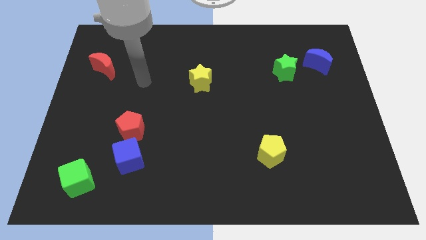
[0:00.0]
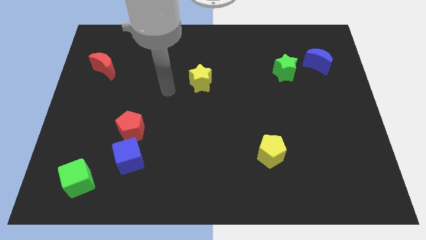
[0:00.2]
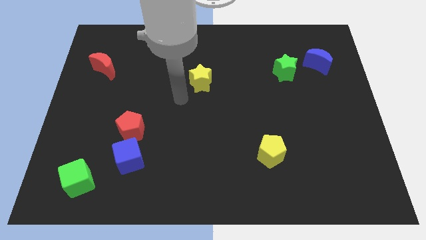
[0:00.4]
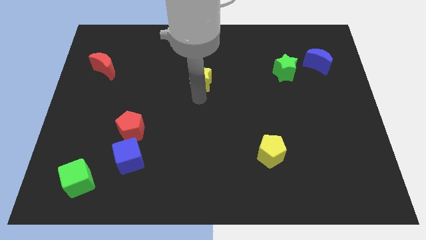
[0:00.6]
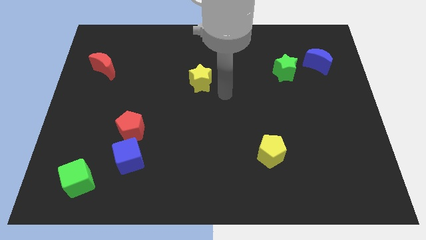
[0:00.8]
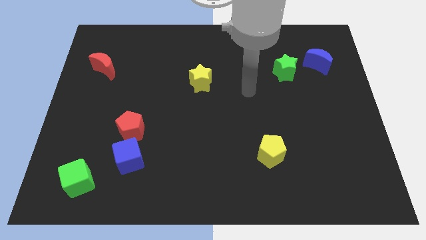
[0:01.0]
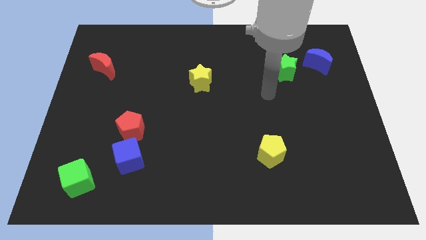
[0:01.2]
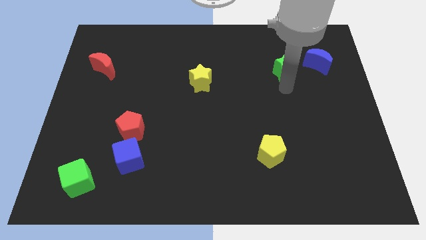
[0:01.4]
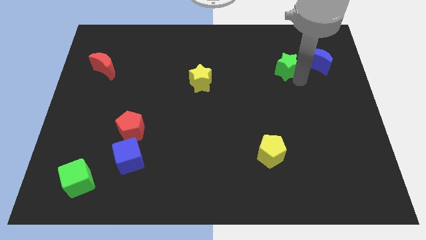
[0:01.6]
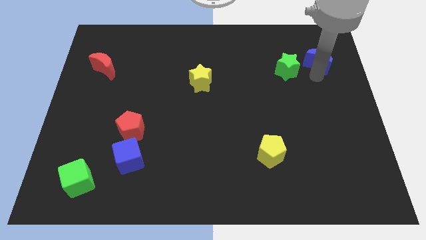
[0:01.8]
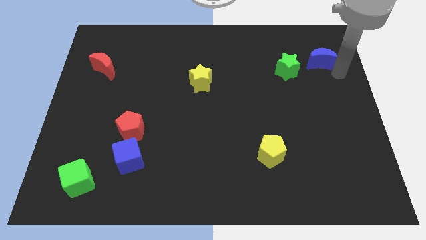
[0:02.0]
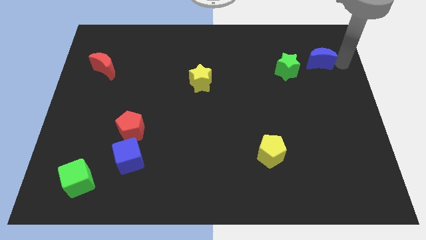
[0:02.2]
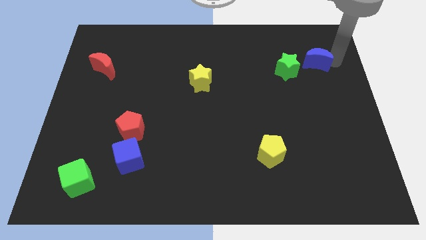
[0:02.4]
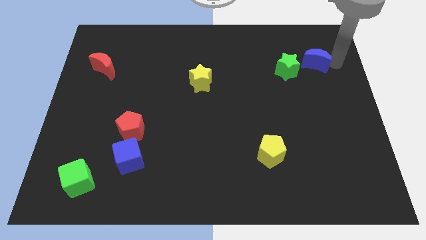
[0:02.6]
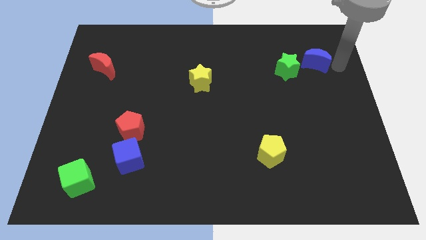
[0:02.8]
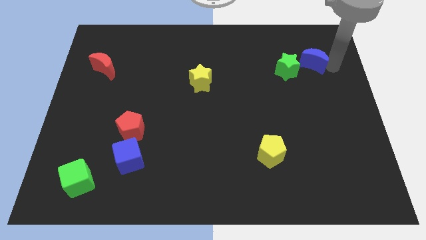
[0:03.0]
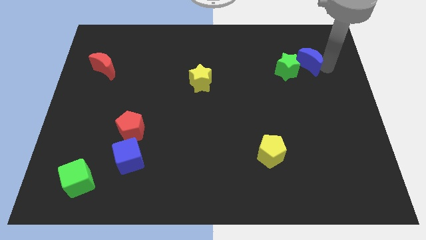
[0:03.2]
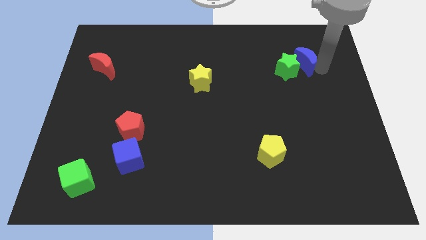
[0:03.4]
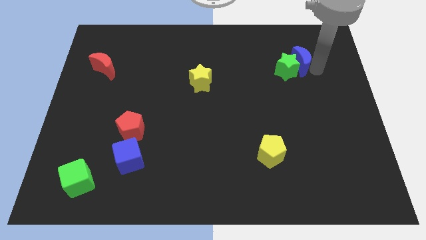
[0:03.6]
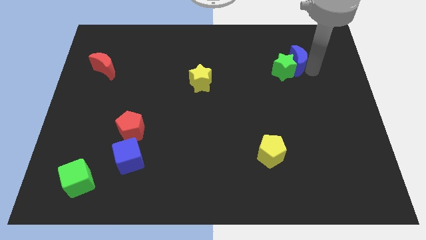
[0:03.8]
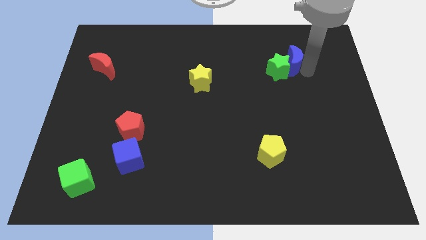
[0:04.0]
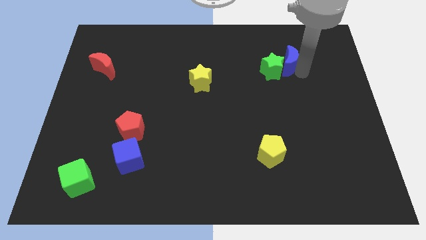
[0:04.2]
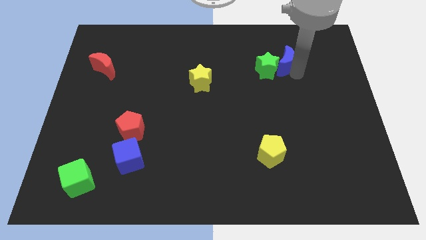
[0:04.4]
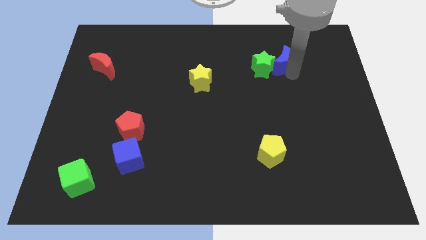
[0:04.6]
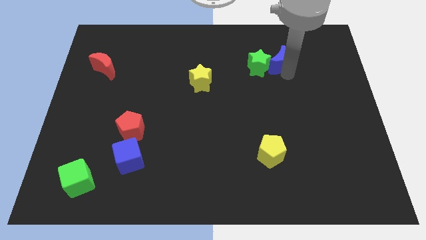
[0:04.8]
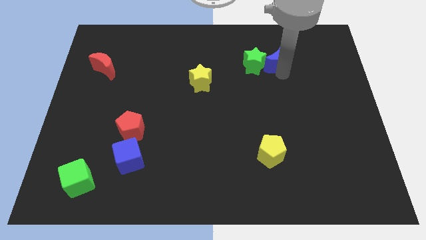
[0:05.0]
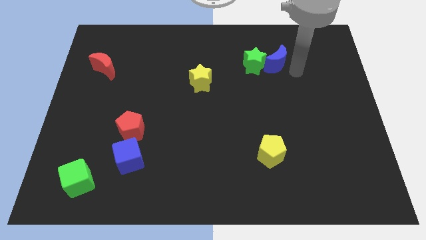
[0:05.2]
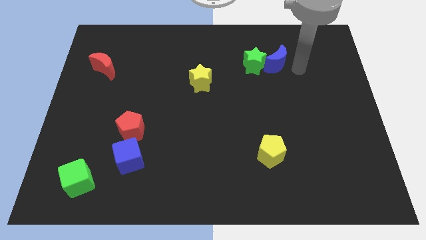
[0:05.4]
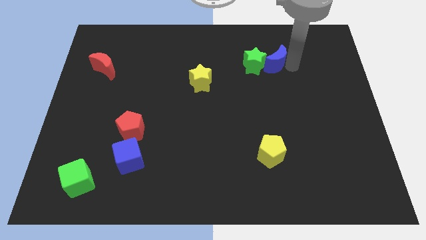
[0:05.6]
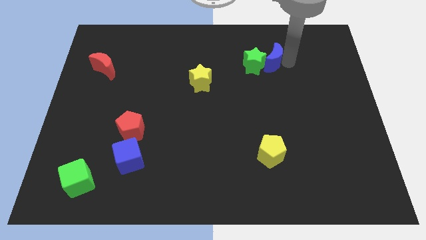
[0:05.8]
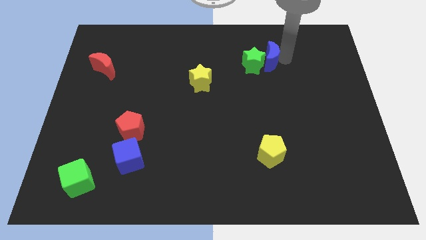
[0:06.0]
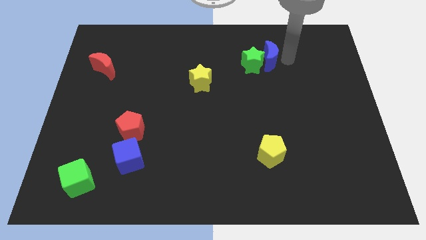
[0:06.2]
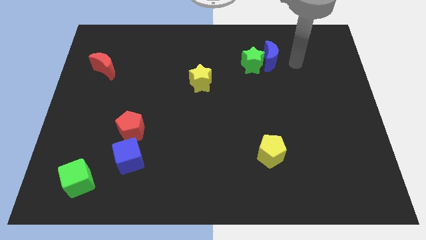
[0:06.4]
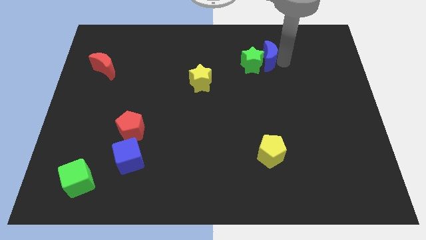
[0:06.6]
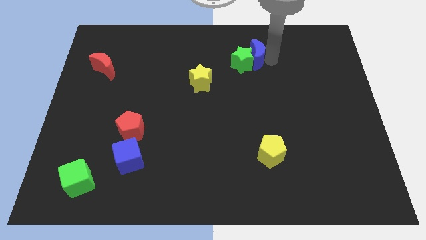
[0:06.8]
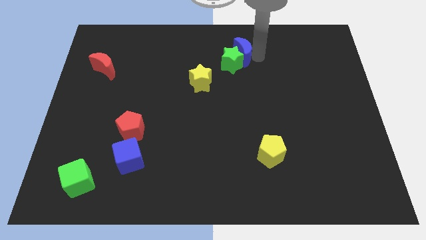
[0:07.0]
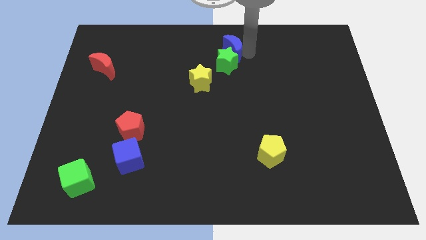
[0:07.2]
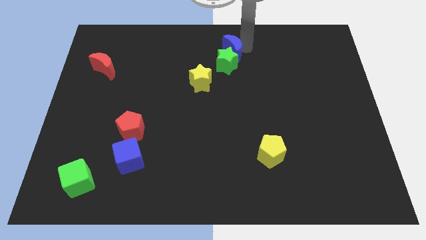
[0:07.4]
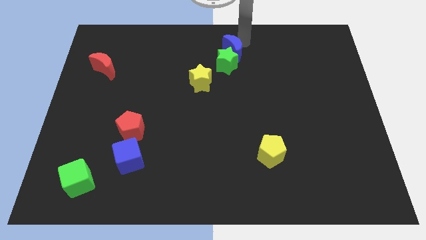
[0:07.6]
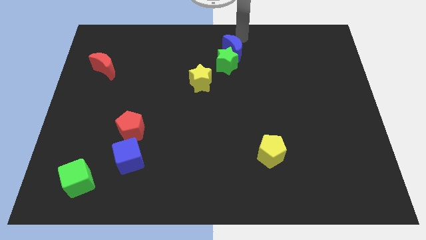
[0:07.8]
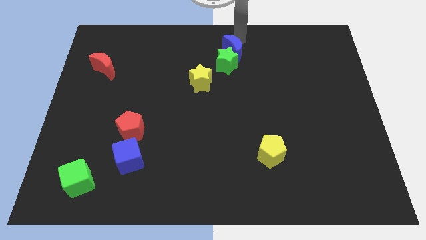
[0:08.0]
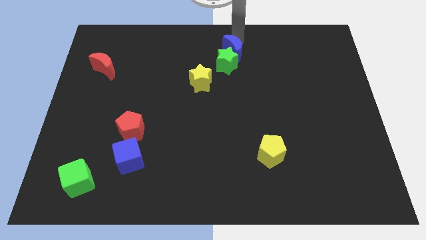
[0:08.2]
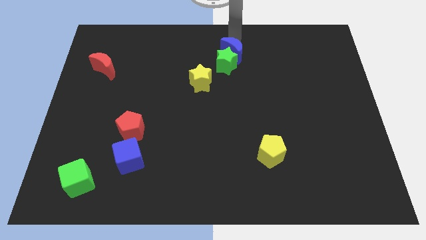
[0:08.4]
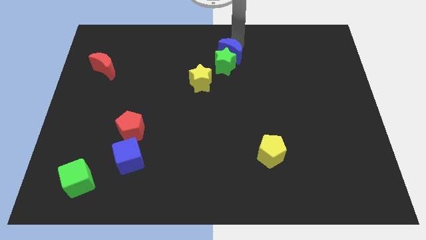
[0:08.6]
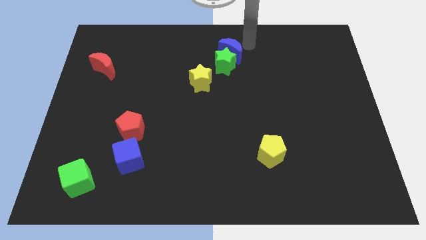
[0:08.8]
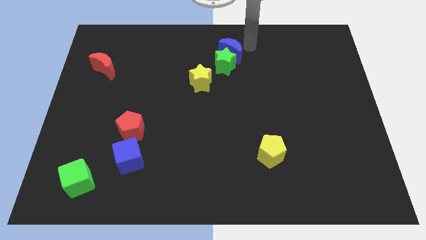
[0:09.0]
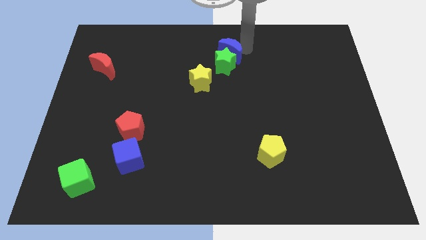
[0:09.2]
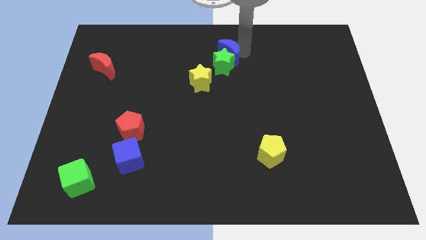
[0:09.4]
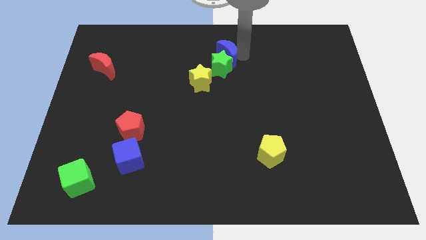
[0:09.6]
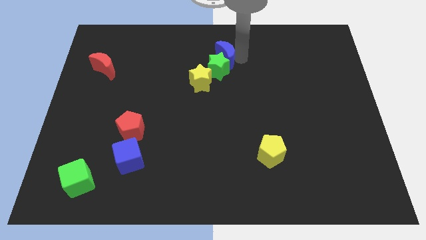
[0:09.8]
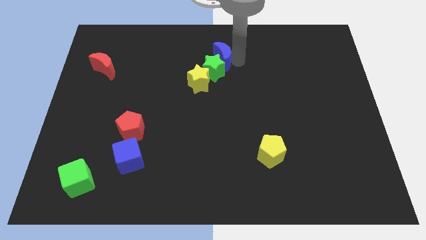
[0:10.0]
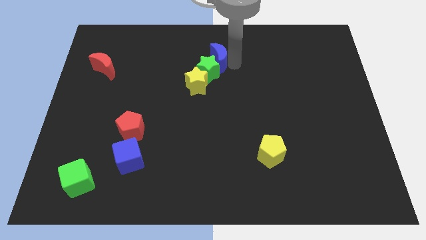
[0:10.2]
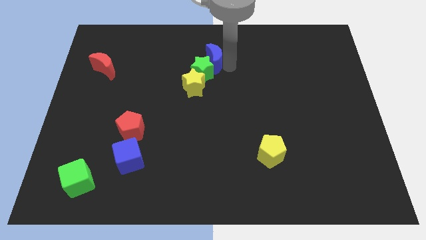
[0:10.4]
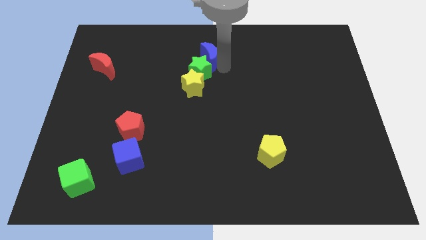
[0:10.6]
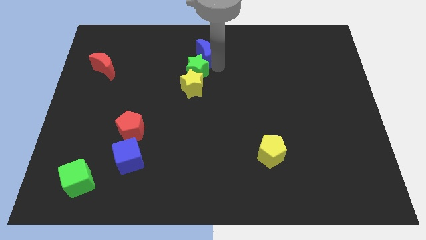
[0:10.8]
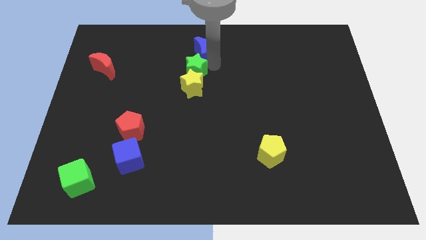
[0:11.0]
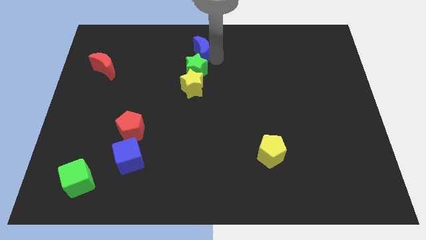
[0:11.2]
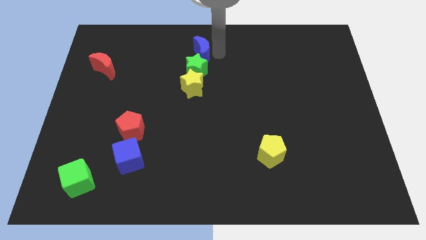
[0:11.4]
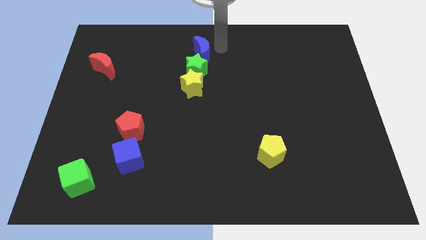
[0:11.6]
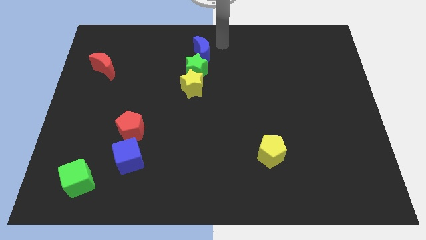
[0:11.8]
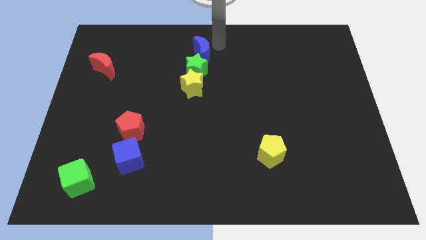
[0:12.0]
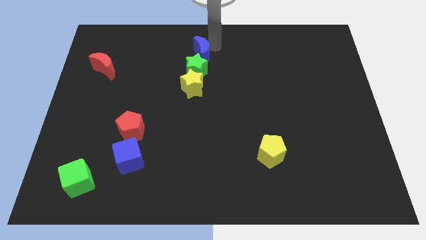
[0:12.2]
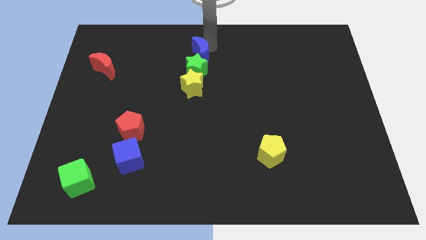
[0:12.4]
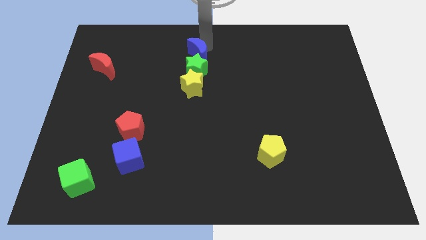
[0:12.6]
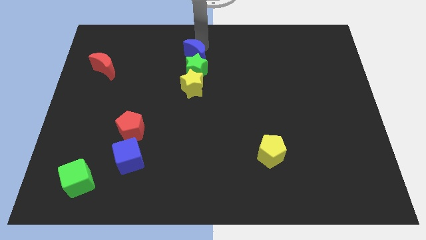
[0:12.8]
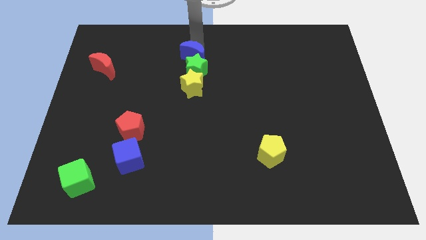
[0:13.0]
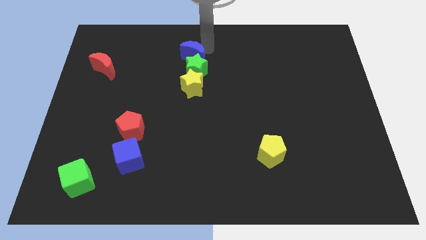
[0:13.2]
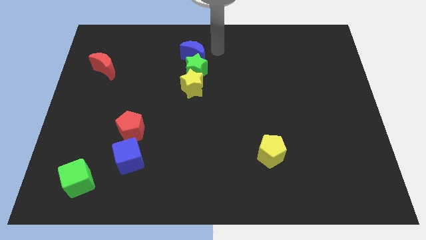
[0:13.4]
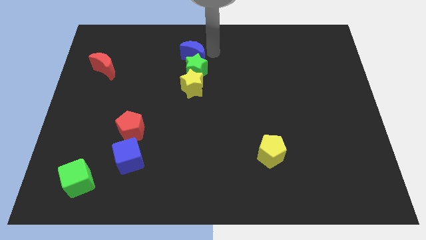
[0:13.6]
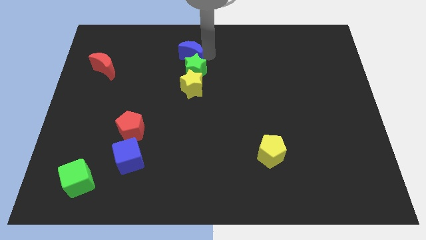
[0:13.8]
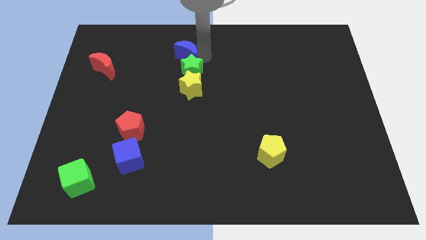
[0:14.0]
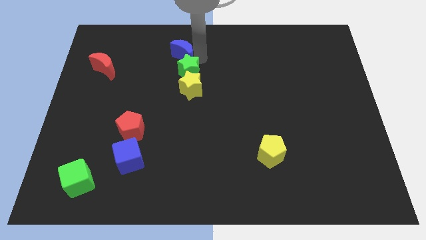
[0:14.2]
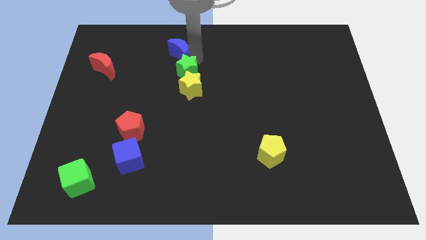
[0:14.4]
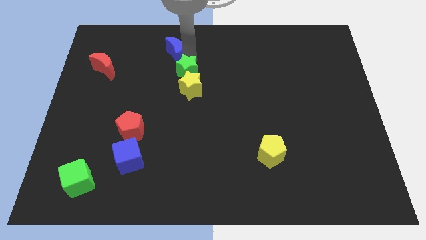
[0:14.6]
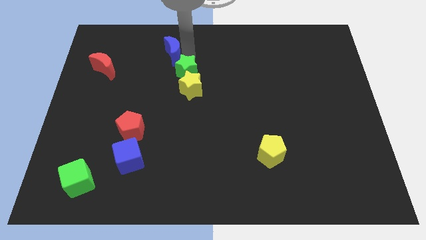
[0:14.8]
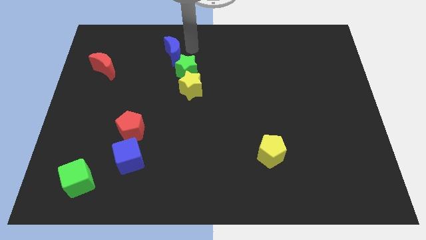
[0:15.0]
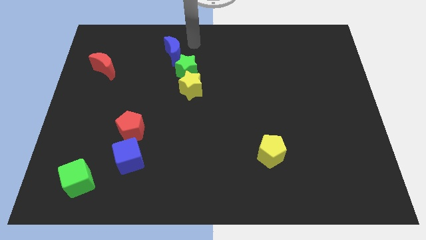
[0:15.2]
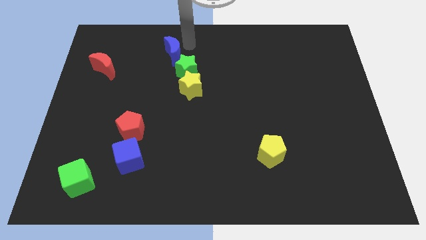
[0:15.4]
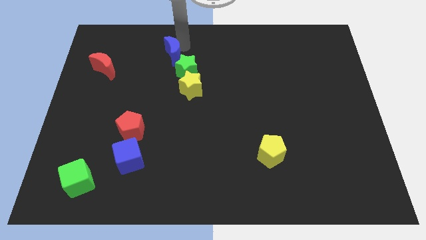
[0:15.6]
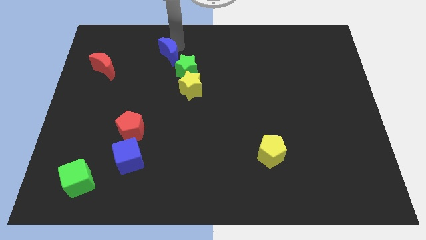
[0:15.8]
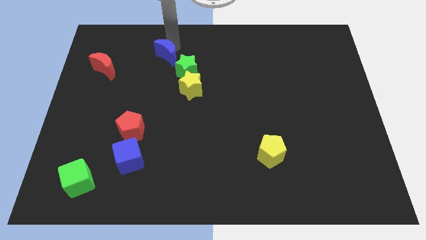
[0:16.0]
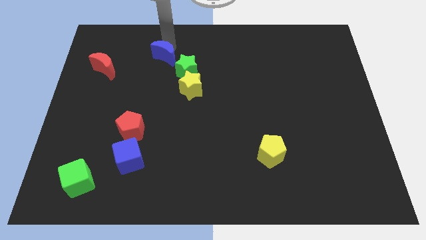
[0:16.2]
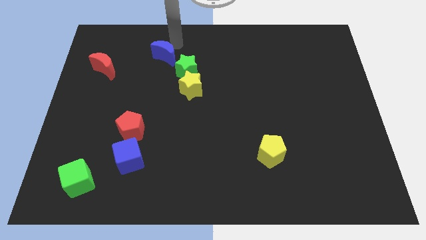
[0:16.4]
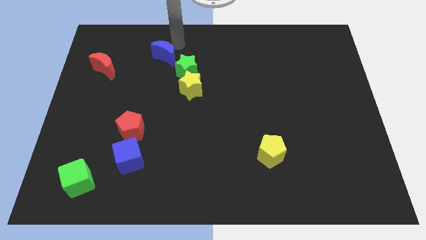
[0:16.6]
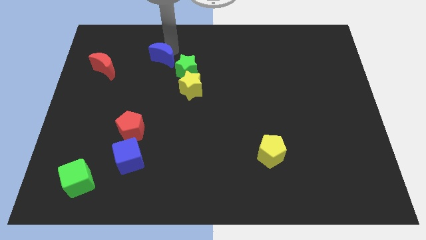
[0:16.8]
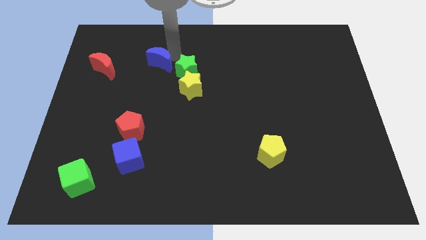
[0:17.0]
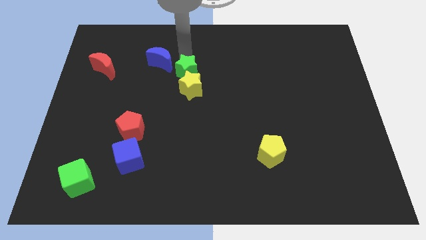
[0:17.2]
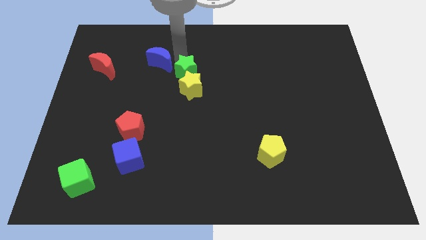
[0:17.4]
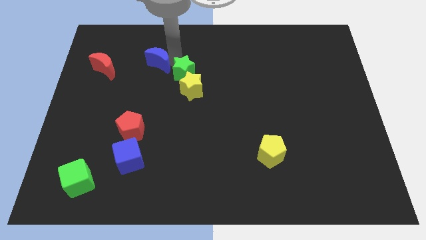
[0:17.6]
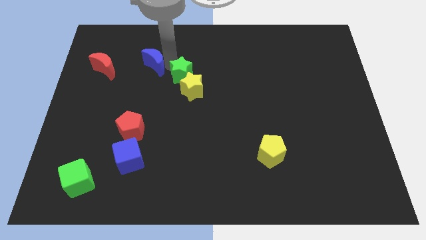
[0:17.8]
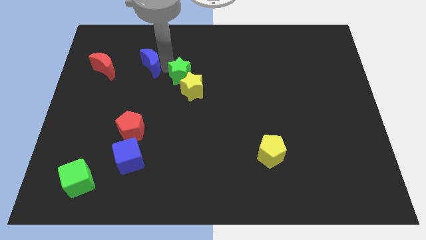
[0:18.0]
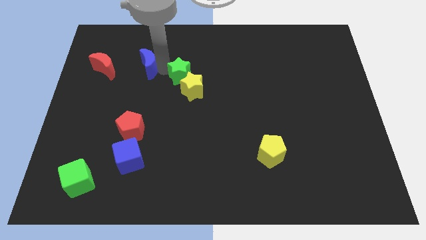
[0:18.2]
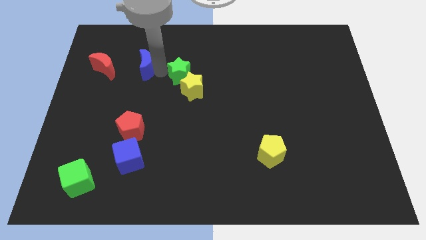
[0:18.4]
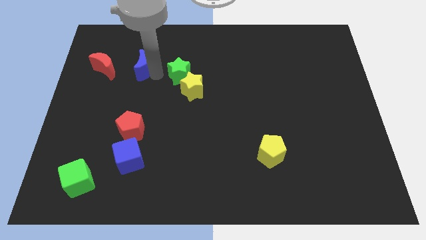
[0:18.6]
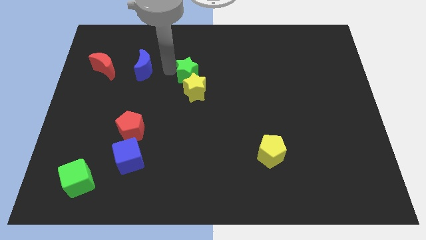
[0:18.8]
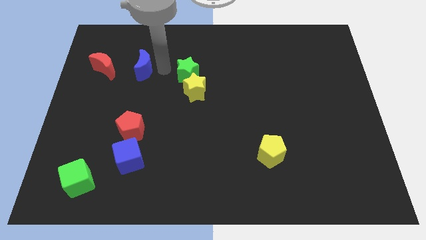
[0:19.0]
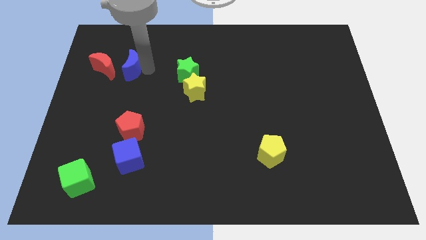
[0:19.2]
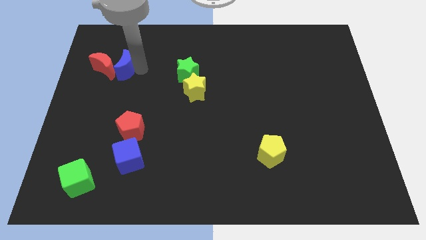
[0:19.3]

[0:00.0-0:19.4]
put the blue moon next to the red moon
